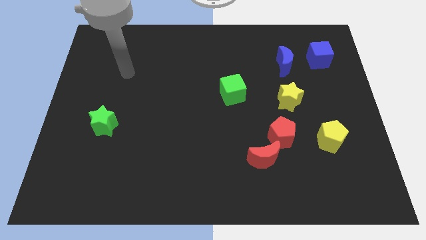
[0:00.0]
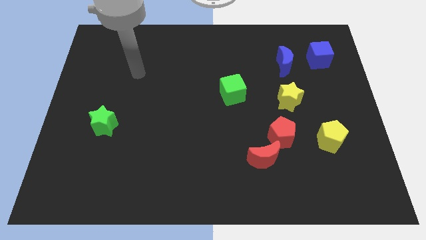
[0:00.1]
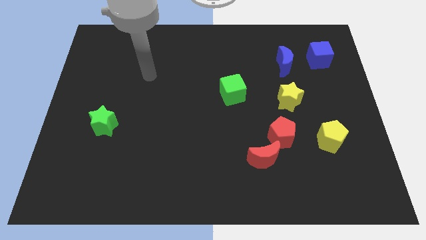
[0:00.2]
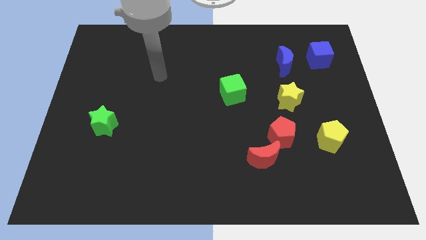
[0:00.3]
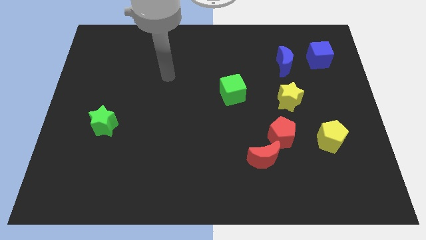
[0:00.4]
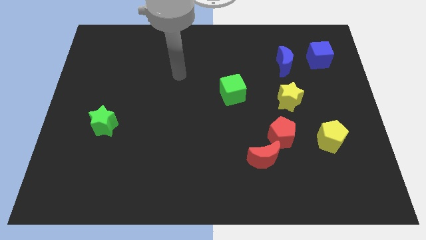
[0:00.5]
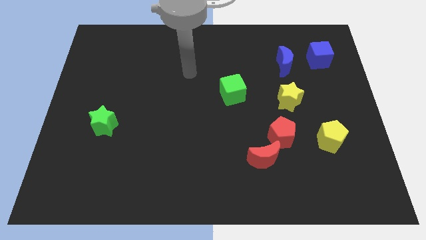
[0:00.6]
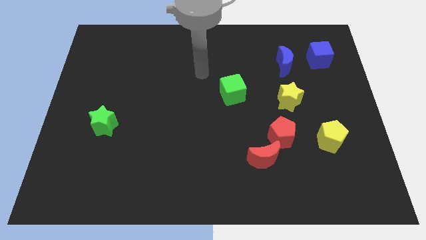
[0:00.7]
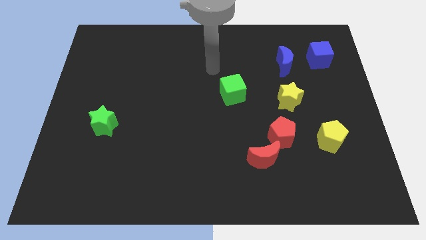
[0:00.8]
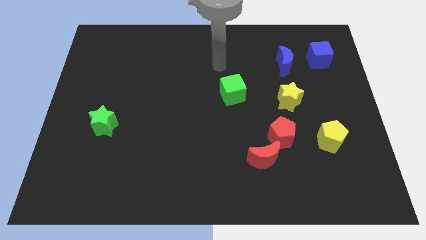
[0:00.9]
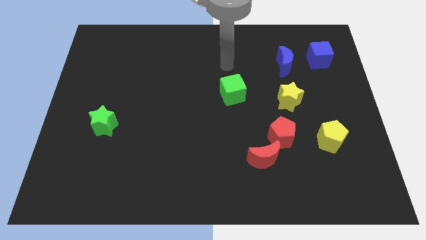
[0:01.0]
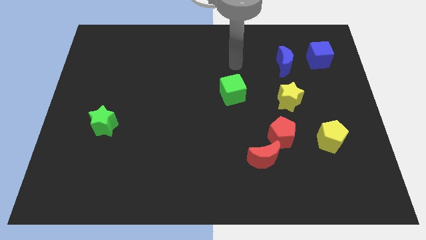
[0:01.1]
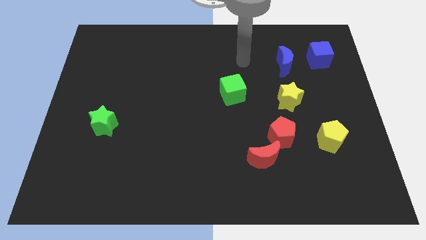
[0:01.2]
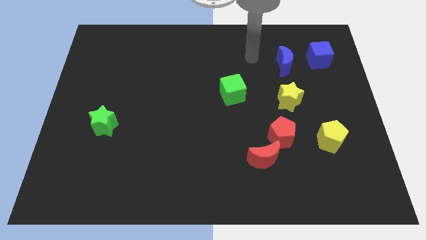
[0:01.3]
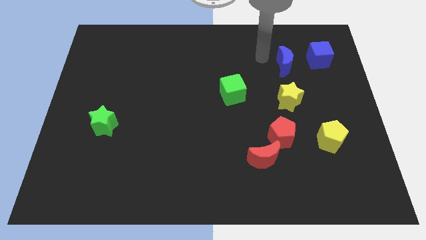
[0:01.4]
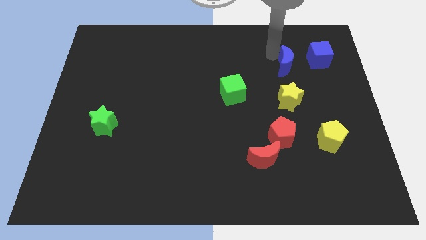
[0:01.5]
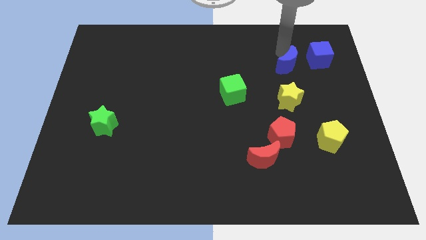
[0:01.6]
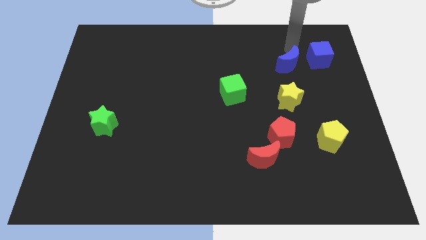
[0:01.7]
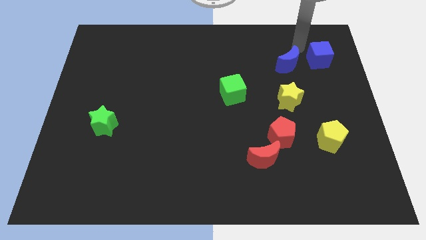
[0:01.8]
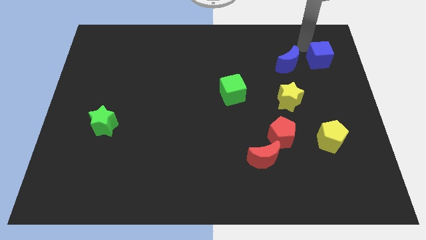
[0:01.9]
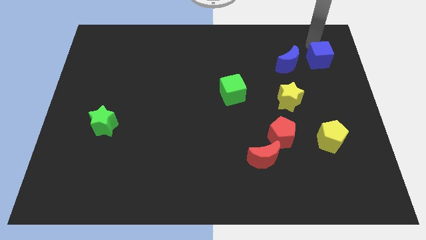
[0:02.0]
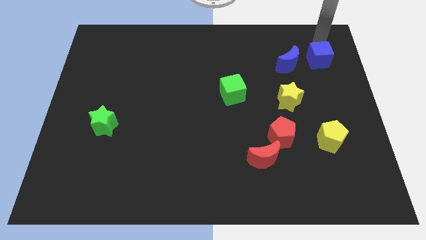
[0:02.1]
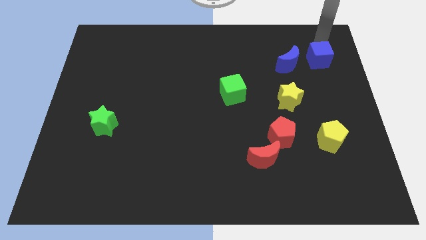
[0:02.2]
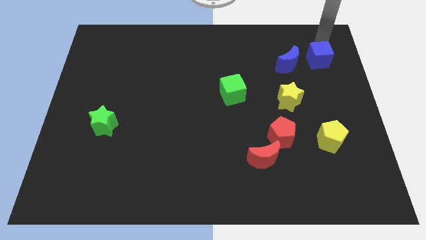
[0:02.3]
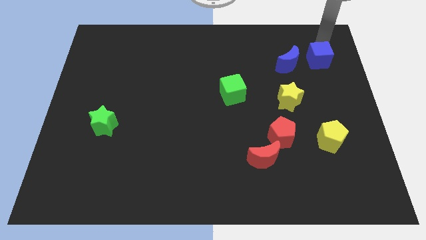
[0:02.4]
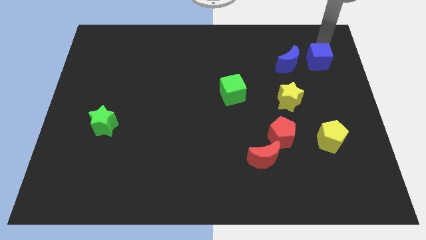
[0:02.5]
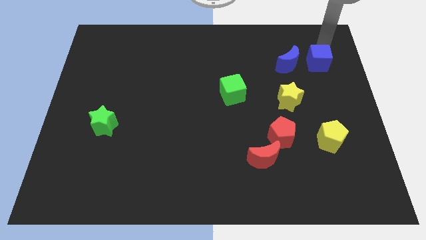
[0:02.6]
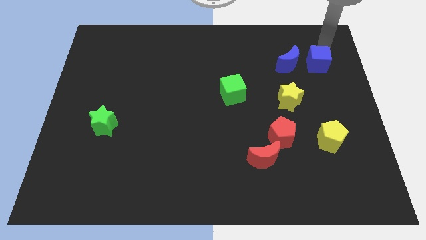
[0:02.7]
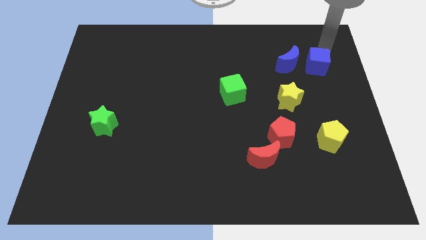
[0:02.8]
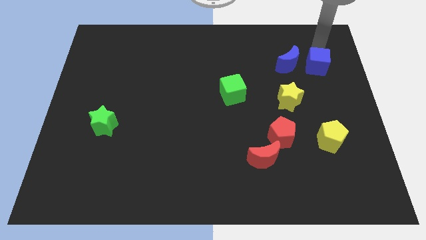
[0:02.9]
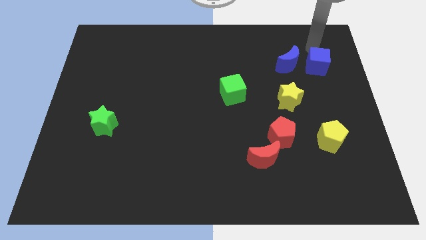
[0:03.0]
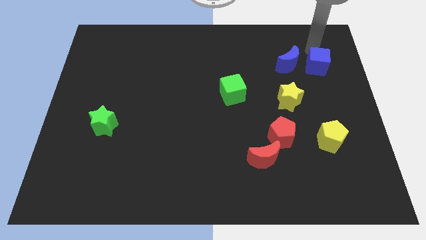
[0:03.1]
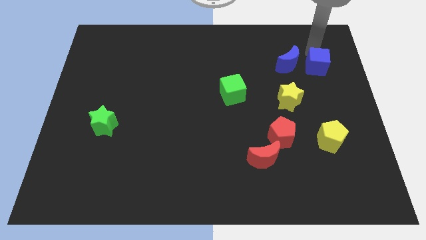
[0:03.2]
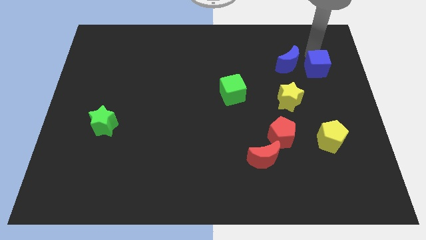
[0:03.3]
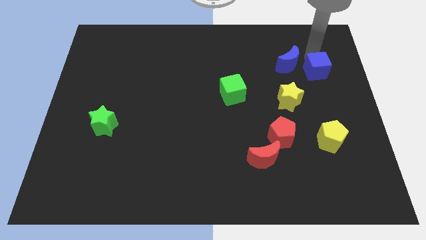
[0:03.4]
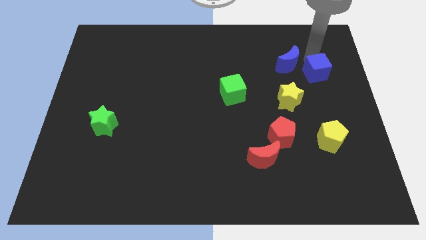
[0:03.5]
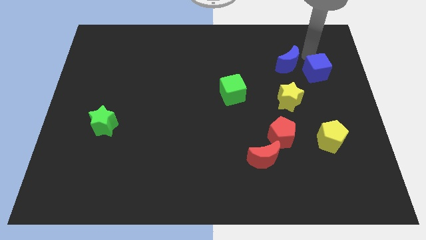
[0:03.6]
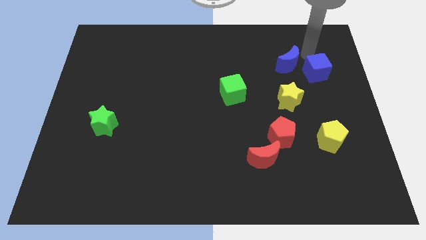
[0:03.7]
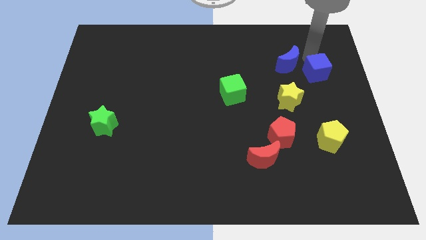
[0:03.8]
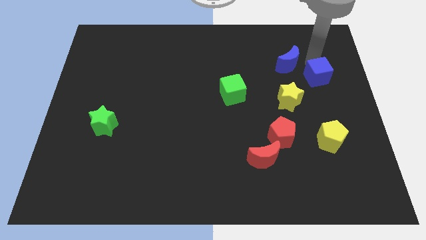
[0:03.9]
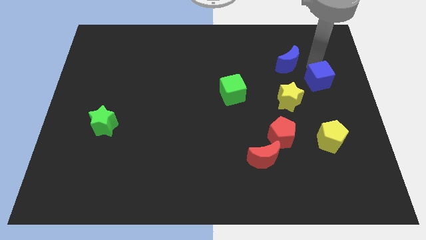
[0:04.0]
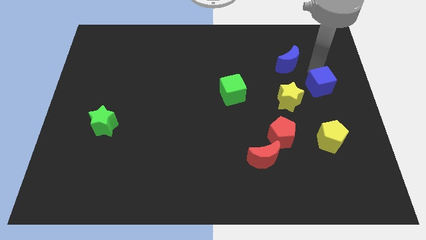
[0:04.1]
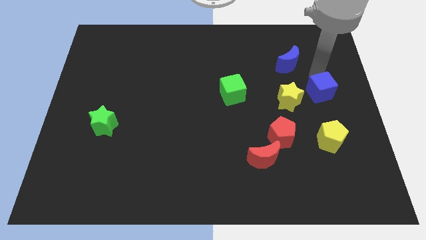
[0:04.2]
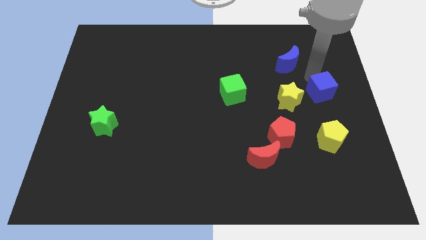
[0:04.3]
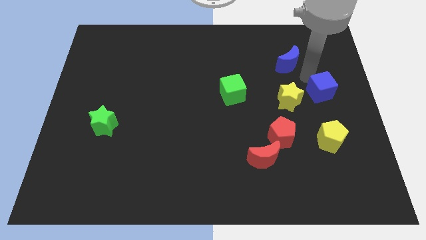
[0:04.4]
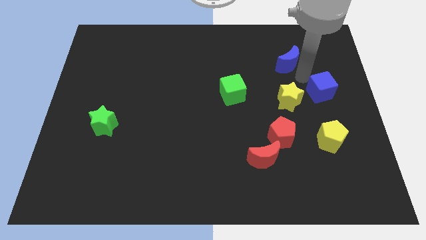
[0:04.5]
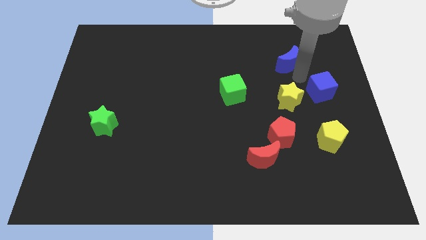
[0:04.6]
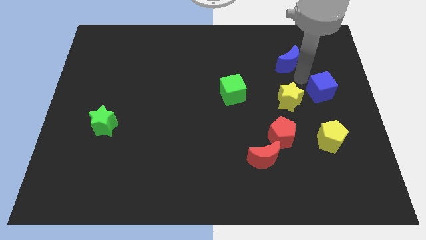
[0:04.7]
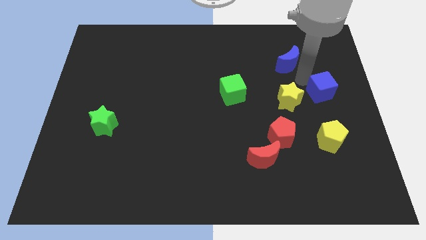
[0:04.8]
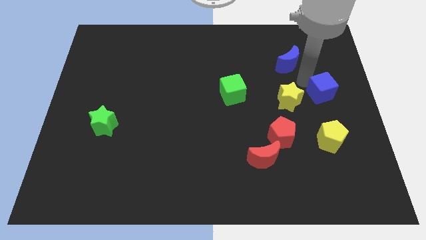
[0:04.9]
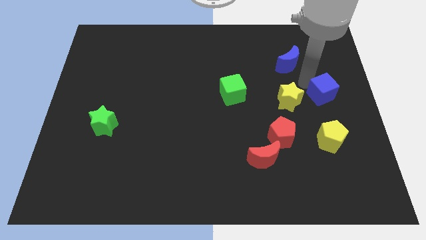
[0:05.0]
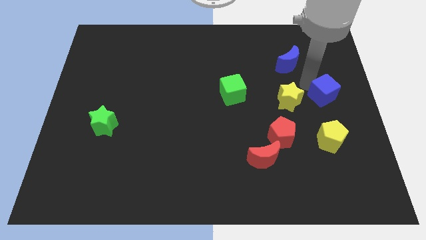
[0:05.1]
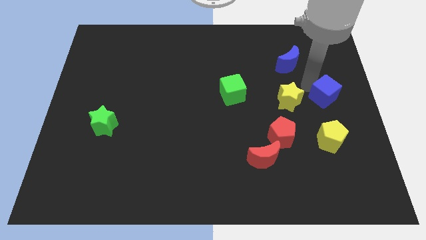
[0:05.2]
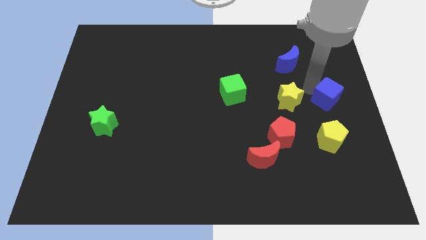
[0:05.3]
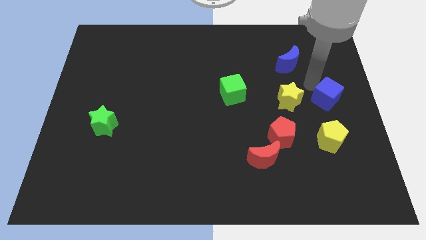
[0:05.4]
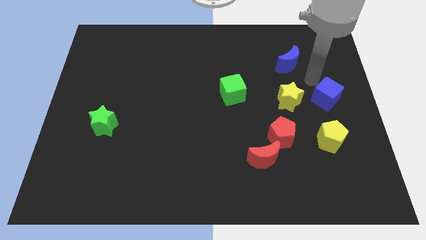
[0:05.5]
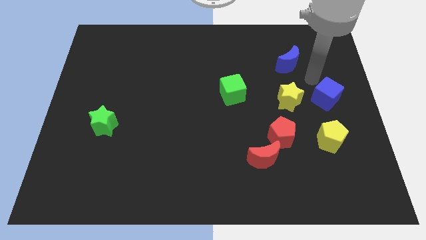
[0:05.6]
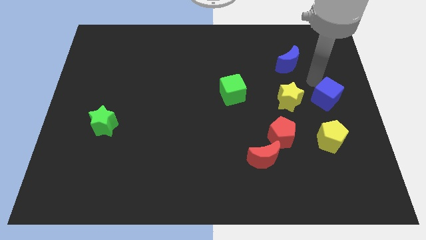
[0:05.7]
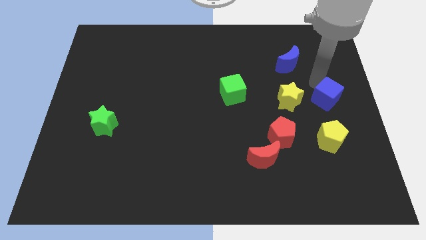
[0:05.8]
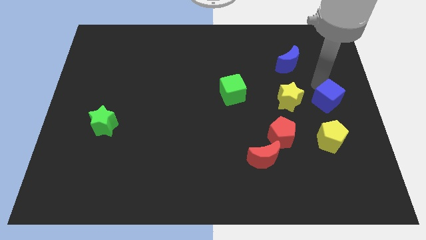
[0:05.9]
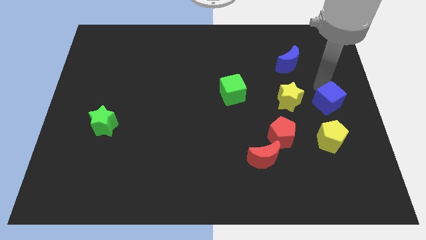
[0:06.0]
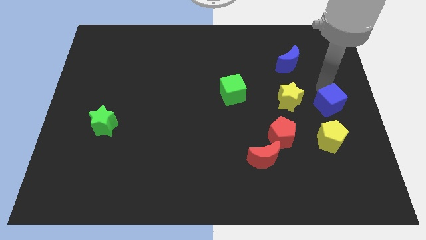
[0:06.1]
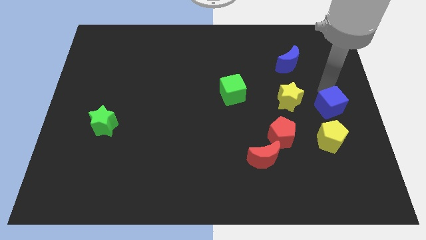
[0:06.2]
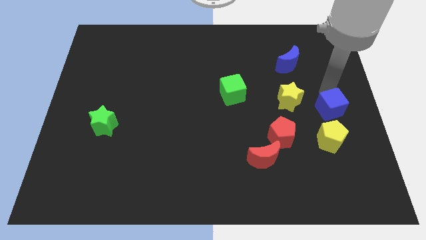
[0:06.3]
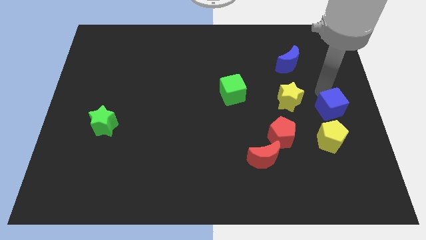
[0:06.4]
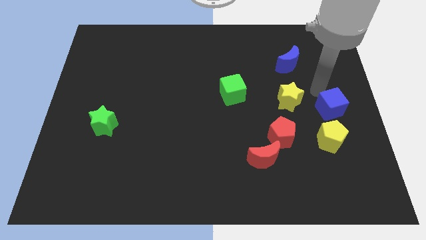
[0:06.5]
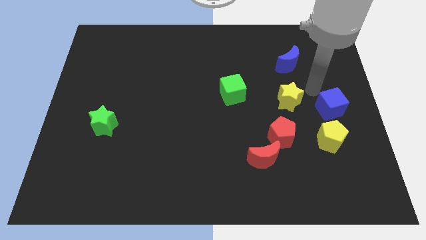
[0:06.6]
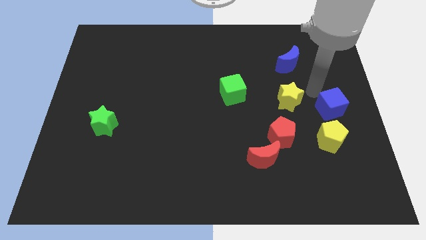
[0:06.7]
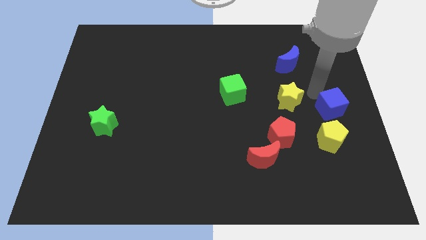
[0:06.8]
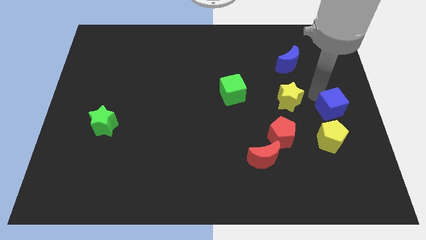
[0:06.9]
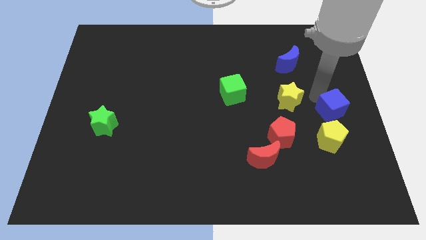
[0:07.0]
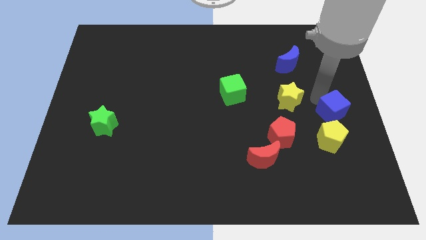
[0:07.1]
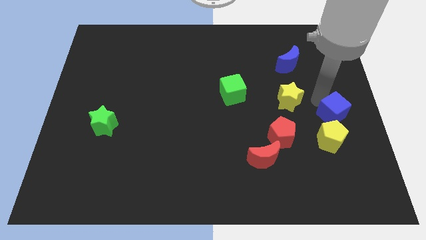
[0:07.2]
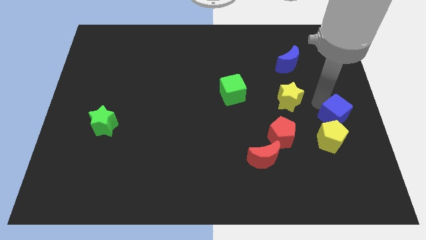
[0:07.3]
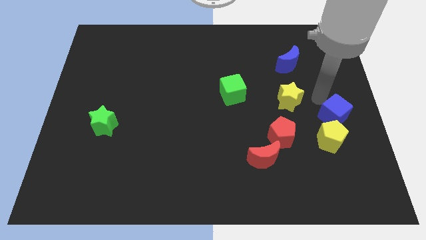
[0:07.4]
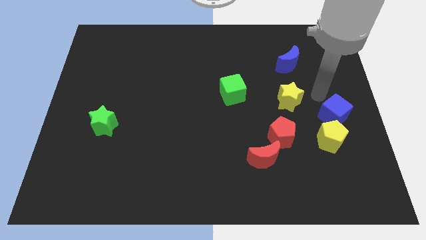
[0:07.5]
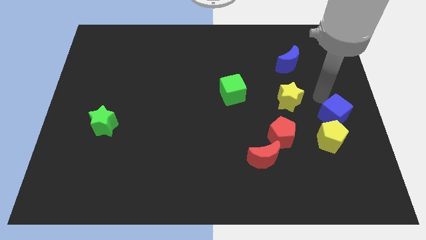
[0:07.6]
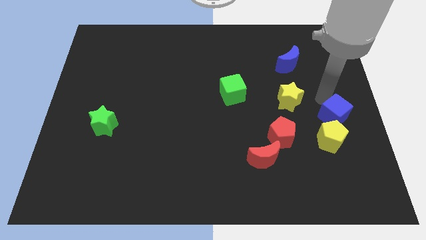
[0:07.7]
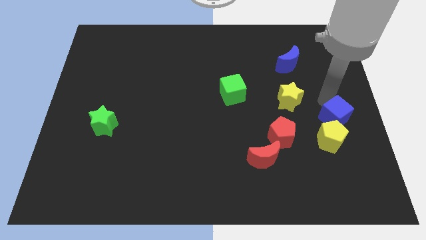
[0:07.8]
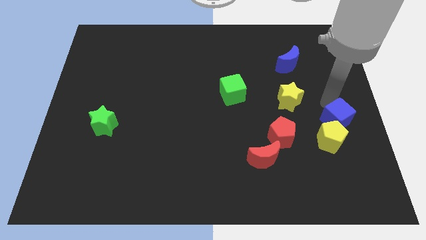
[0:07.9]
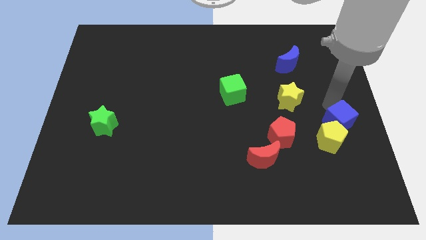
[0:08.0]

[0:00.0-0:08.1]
push the blue cube just right of the red pentagon

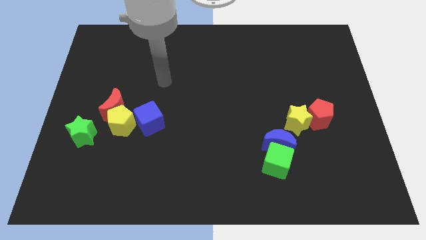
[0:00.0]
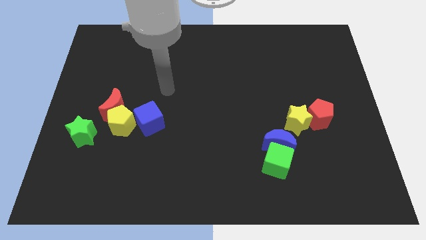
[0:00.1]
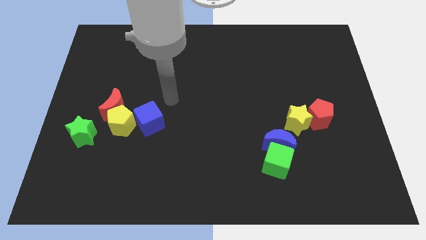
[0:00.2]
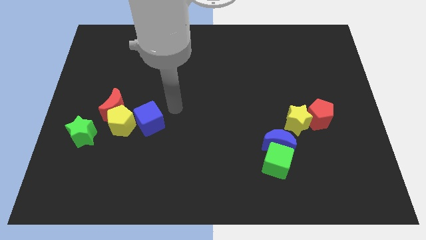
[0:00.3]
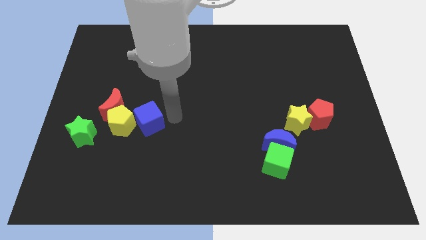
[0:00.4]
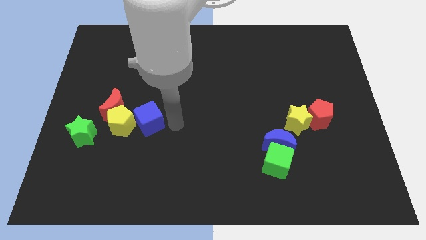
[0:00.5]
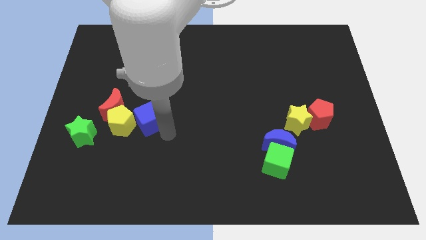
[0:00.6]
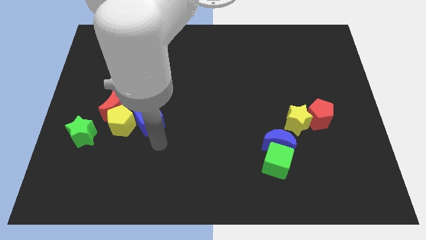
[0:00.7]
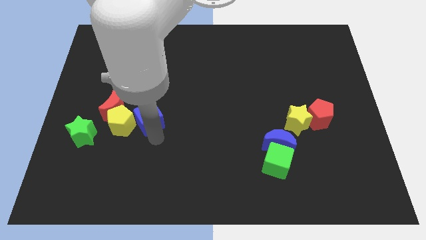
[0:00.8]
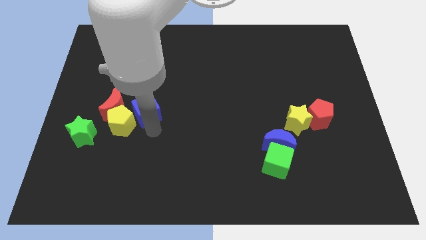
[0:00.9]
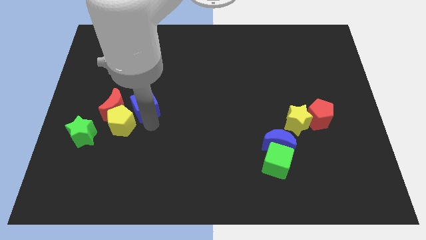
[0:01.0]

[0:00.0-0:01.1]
move the blue cube diagonally up and to the right of the red moon
